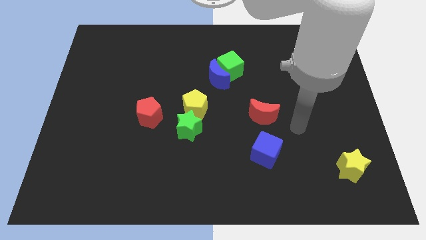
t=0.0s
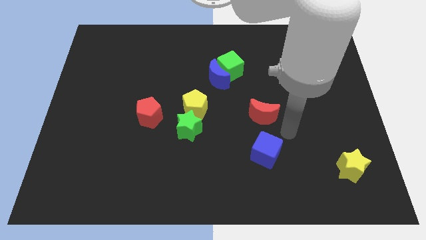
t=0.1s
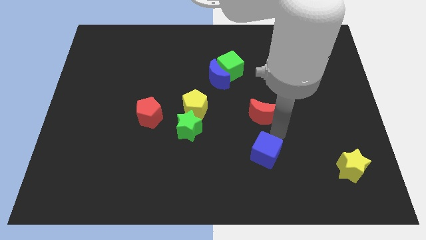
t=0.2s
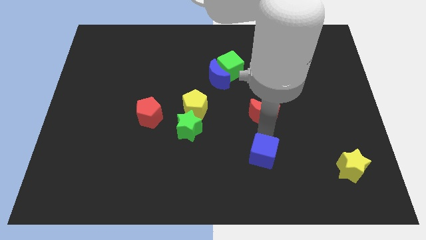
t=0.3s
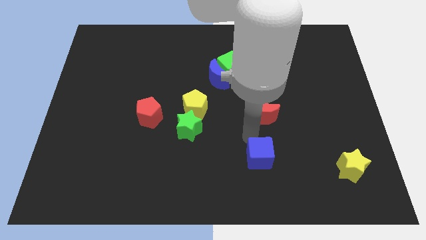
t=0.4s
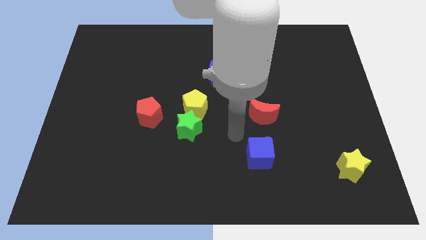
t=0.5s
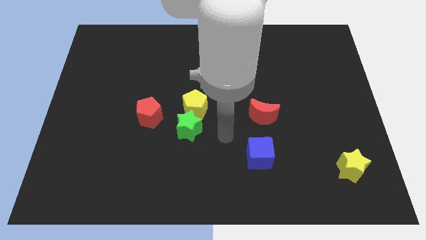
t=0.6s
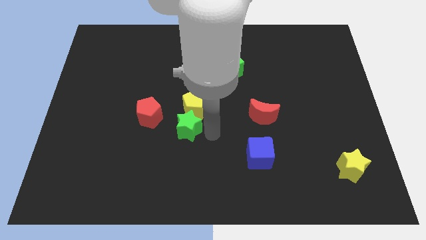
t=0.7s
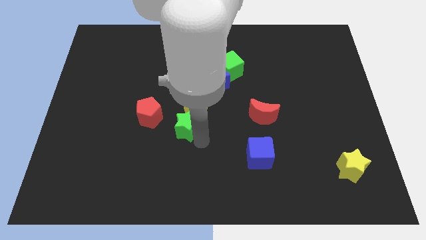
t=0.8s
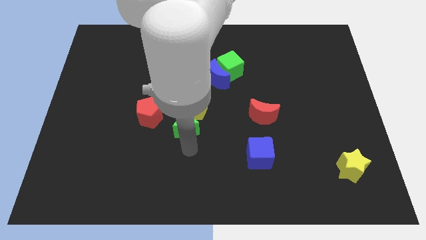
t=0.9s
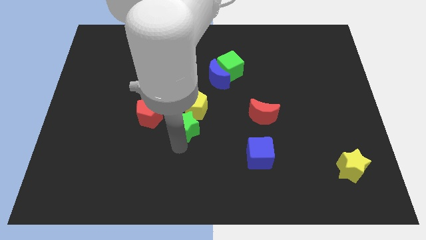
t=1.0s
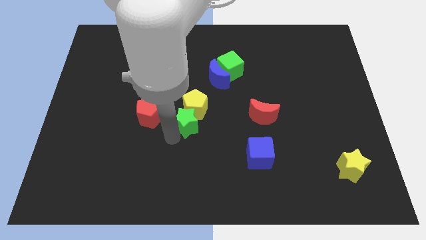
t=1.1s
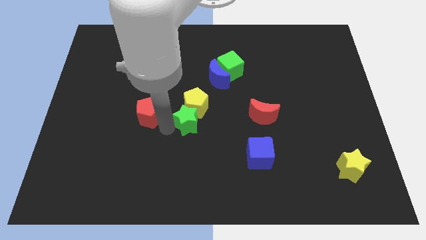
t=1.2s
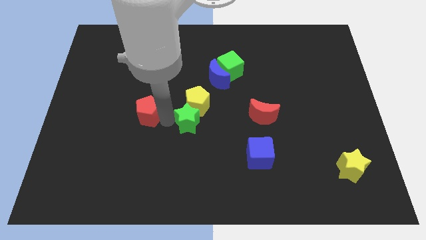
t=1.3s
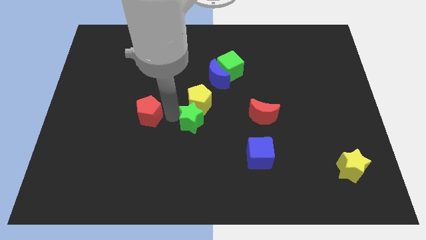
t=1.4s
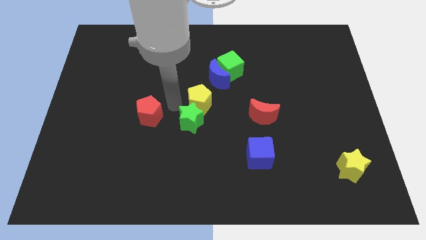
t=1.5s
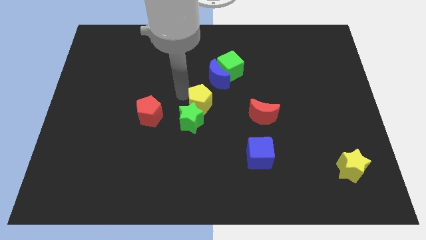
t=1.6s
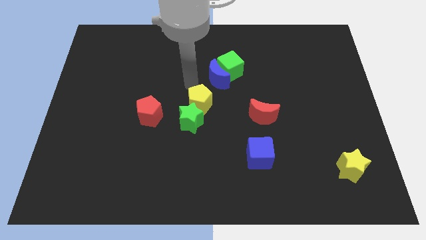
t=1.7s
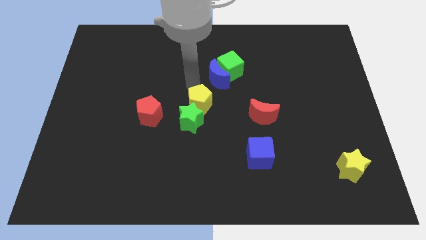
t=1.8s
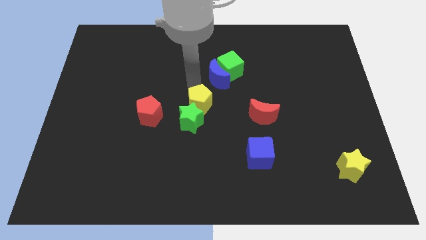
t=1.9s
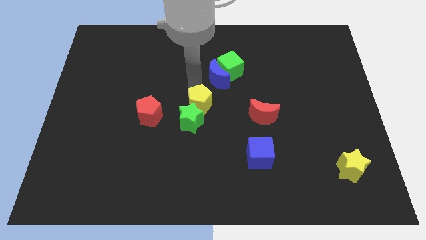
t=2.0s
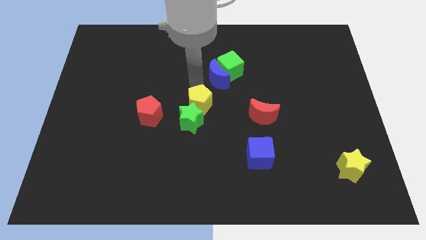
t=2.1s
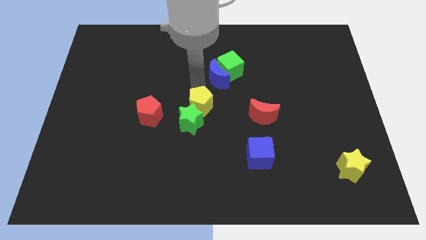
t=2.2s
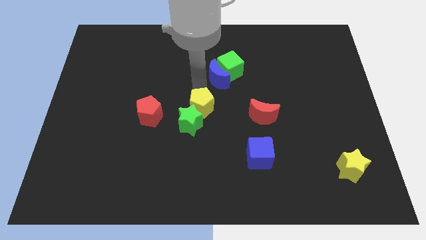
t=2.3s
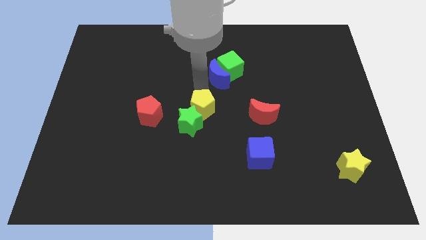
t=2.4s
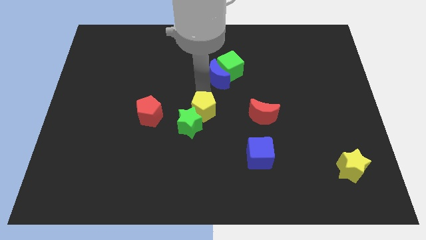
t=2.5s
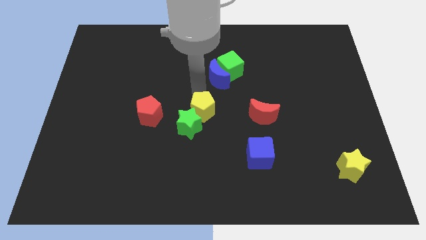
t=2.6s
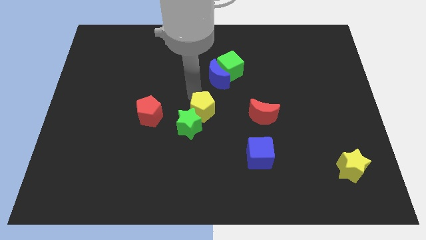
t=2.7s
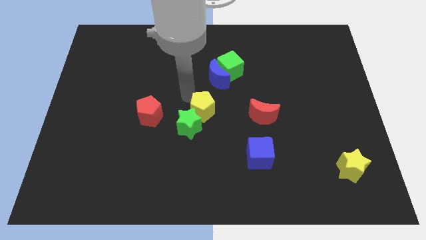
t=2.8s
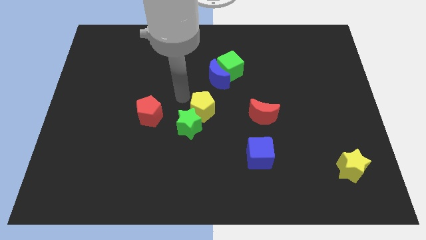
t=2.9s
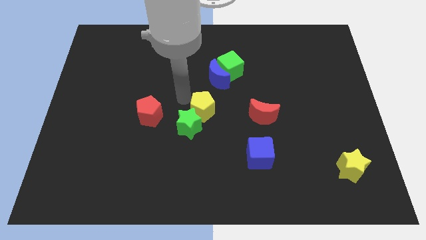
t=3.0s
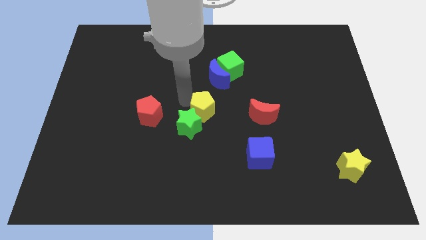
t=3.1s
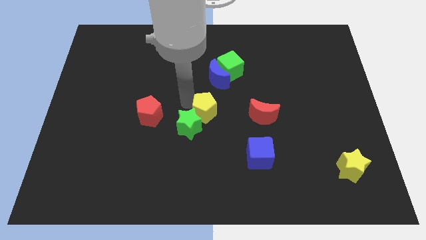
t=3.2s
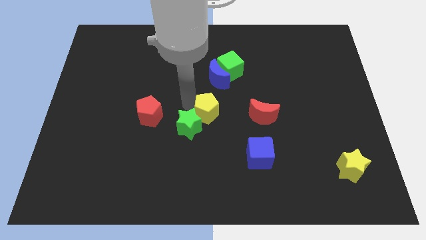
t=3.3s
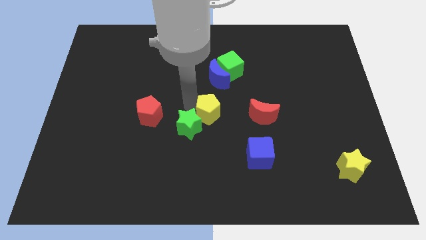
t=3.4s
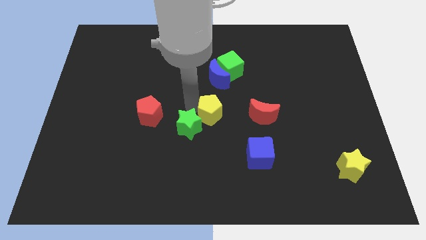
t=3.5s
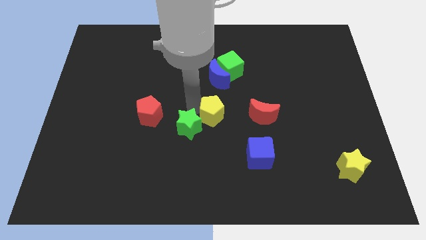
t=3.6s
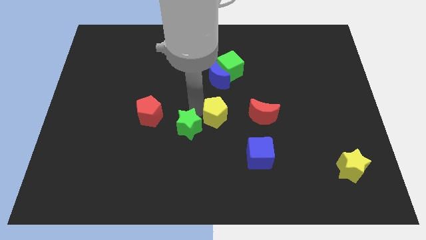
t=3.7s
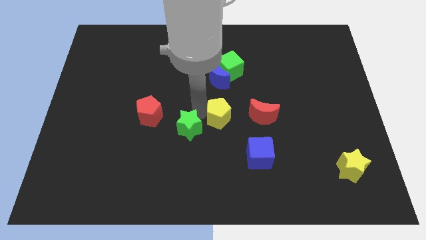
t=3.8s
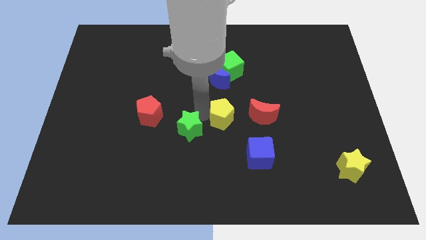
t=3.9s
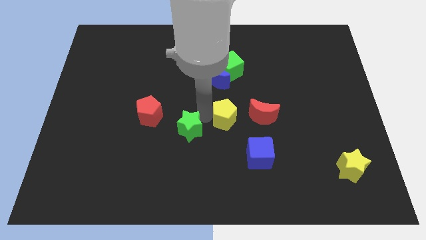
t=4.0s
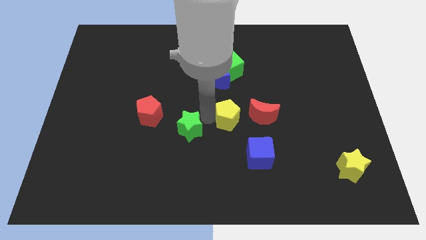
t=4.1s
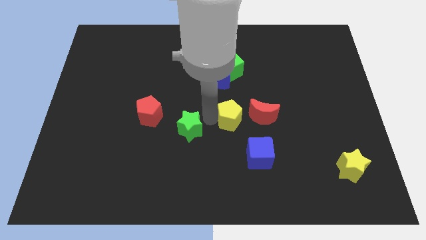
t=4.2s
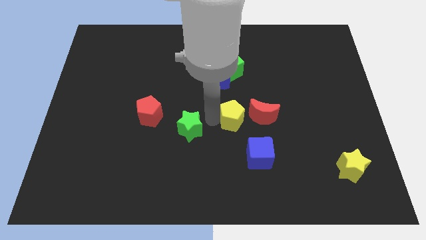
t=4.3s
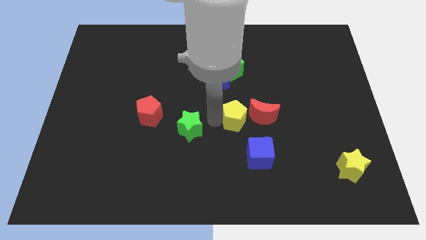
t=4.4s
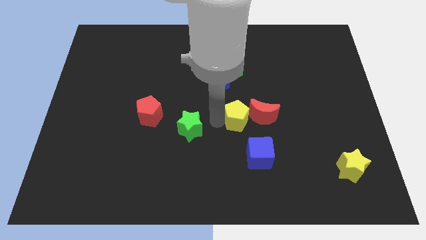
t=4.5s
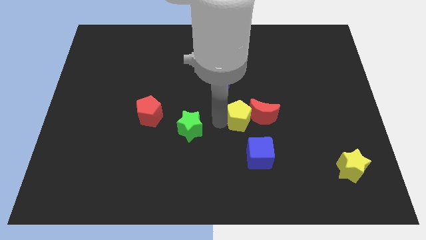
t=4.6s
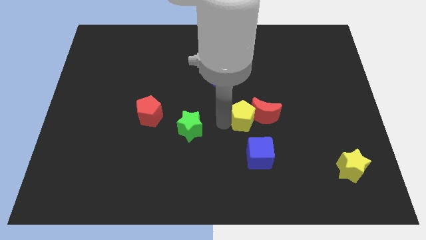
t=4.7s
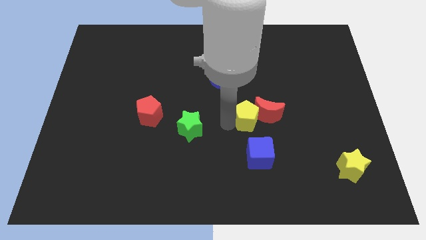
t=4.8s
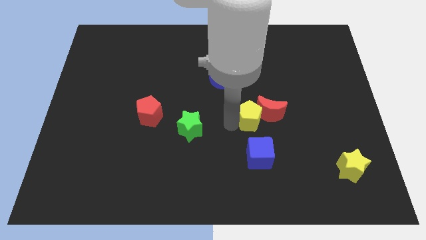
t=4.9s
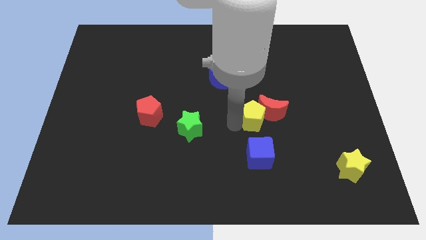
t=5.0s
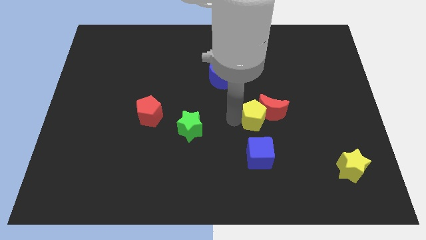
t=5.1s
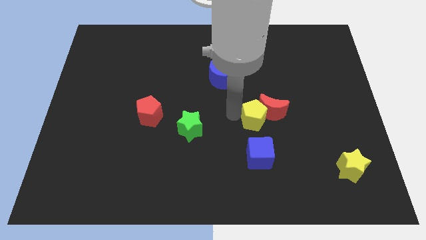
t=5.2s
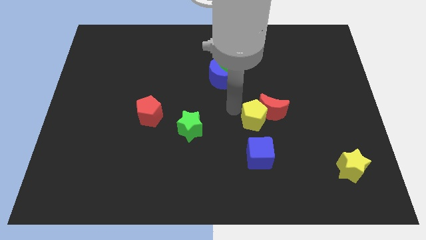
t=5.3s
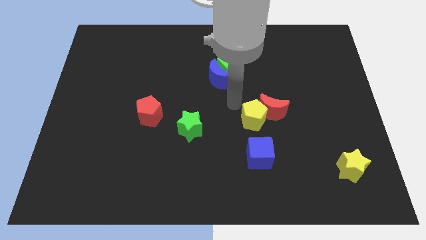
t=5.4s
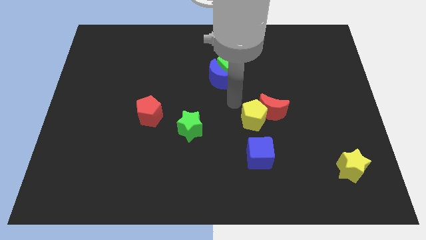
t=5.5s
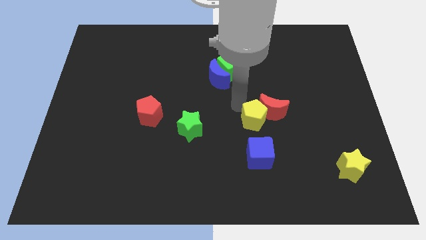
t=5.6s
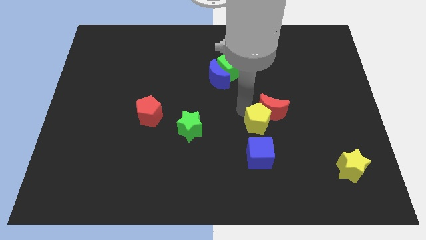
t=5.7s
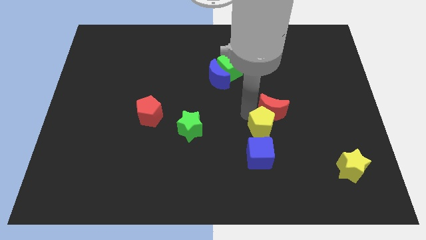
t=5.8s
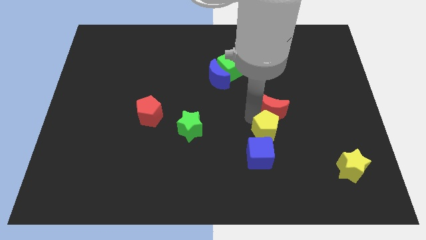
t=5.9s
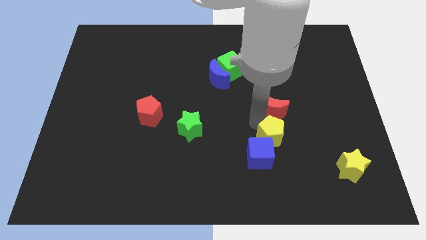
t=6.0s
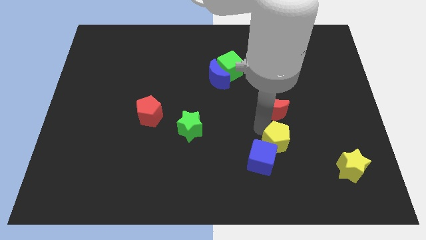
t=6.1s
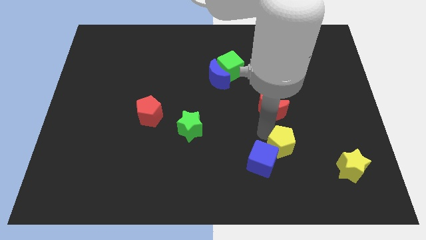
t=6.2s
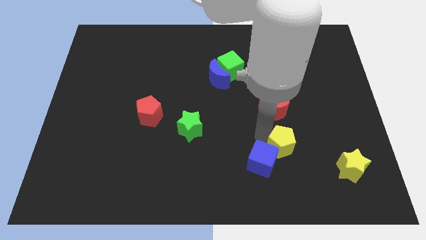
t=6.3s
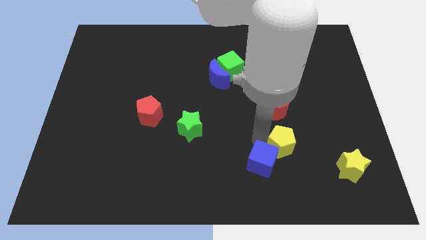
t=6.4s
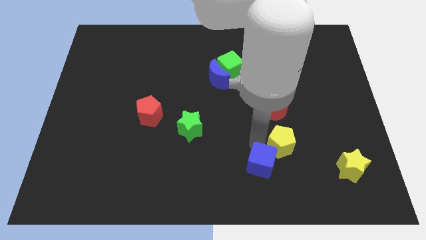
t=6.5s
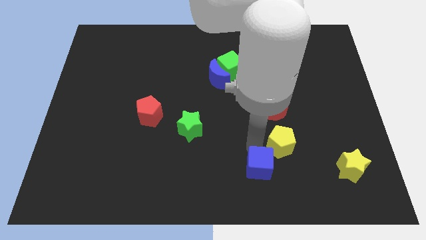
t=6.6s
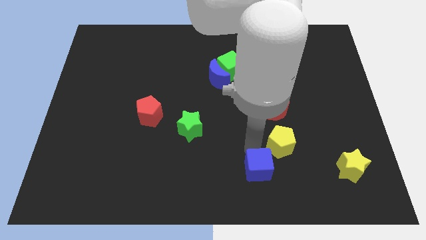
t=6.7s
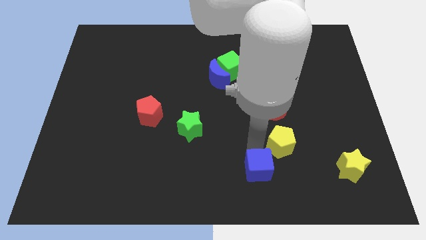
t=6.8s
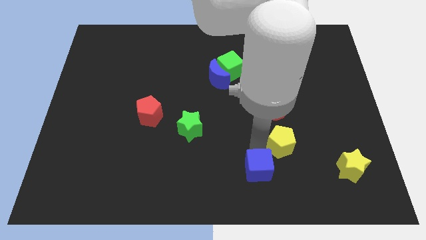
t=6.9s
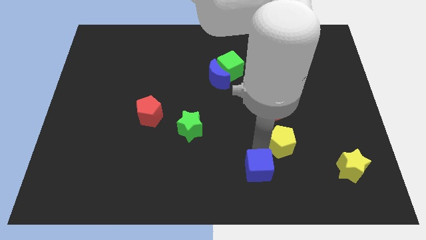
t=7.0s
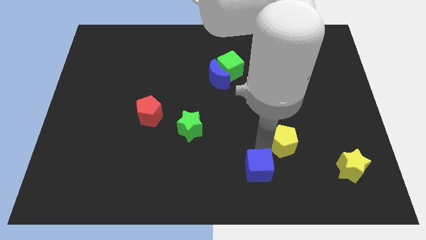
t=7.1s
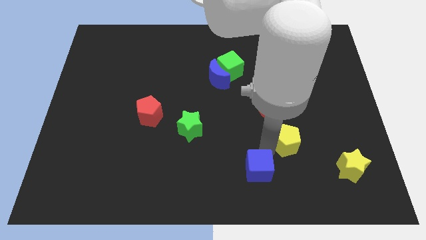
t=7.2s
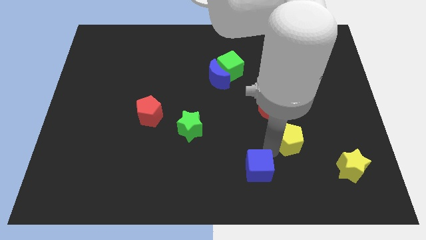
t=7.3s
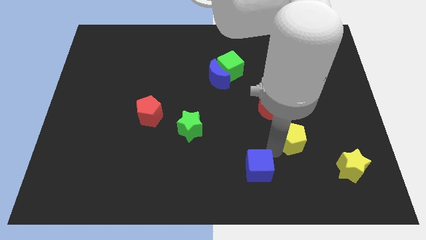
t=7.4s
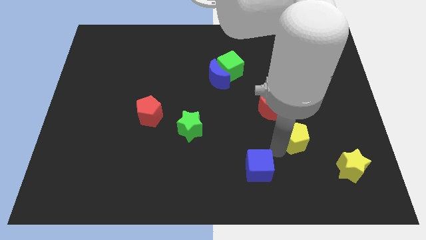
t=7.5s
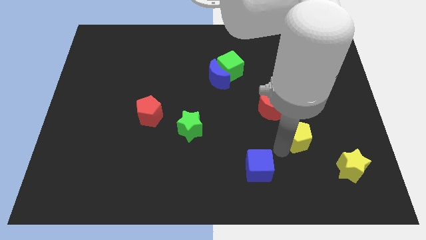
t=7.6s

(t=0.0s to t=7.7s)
slide the yellow pentagon to the top left of the yellow star
